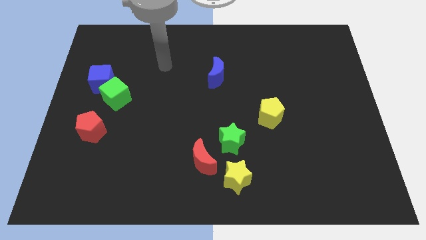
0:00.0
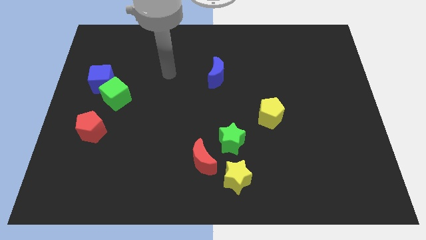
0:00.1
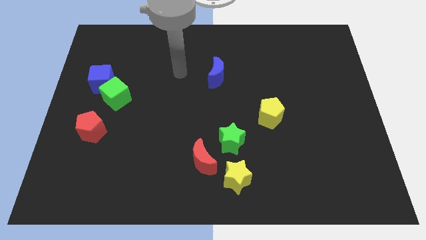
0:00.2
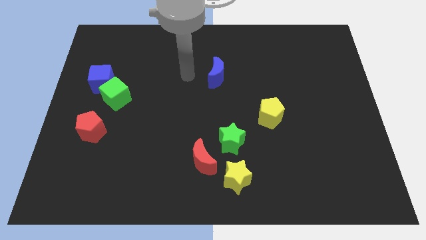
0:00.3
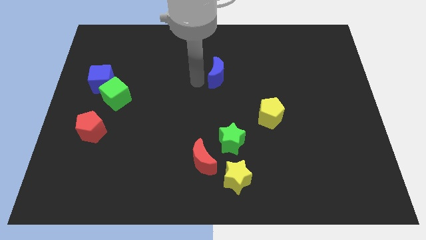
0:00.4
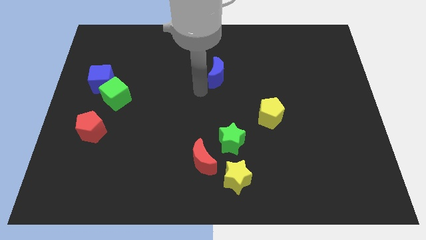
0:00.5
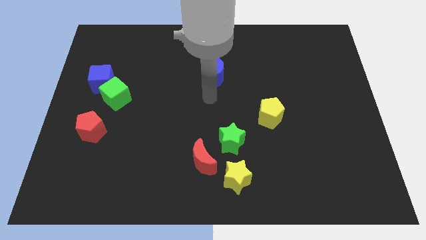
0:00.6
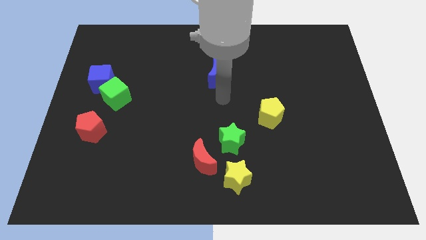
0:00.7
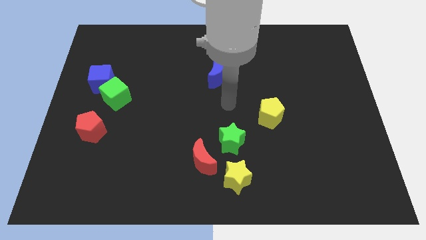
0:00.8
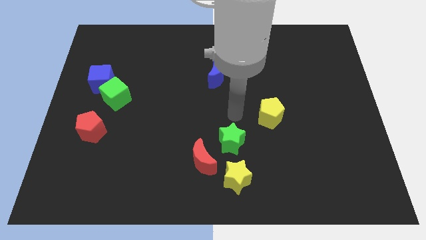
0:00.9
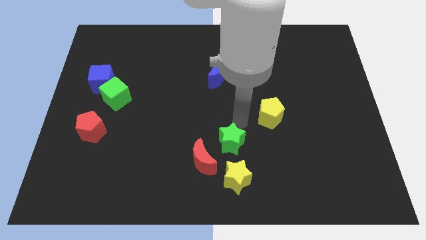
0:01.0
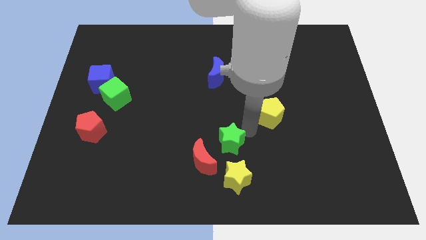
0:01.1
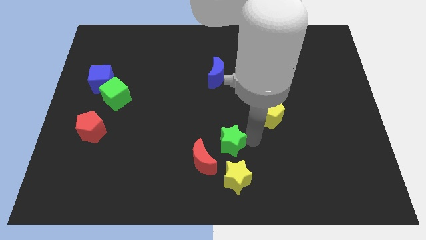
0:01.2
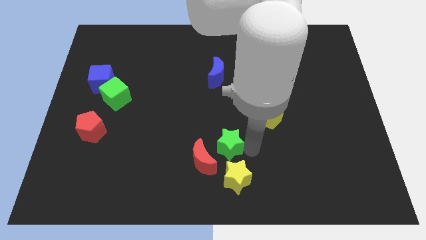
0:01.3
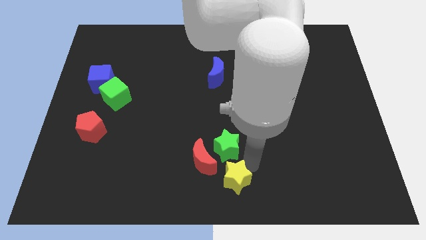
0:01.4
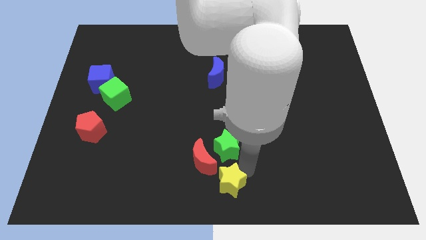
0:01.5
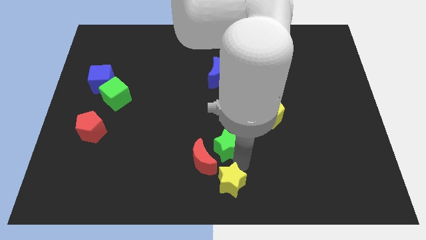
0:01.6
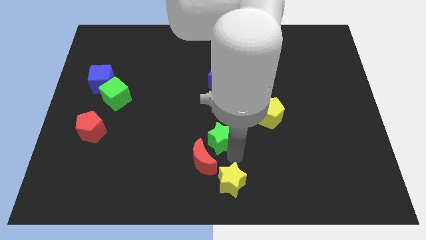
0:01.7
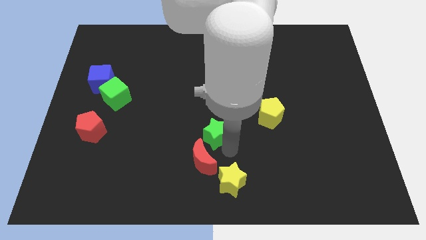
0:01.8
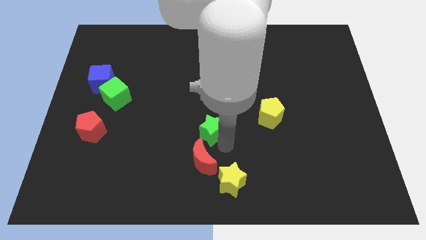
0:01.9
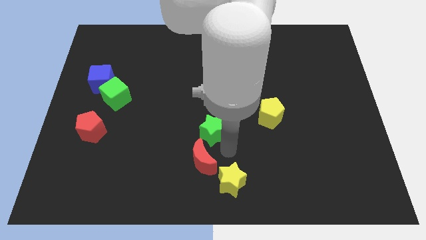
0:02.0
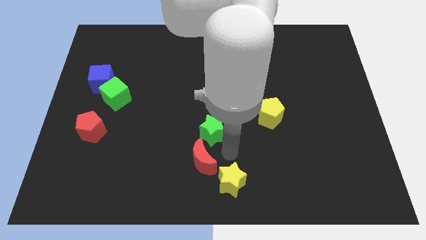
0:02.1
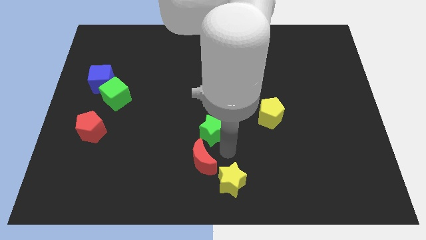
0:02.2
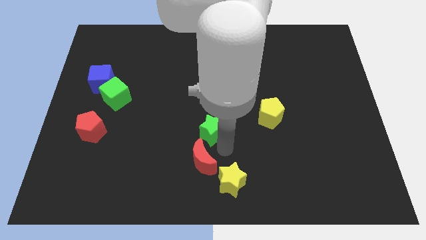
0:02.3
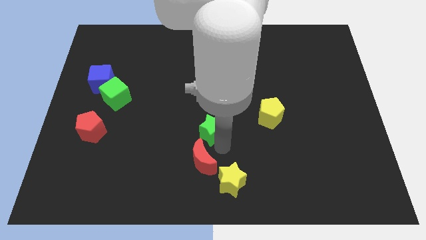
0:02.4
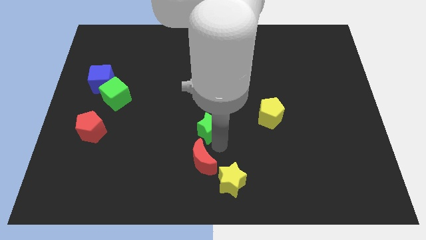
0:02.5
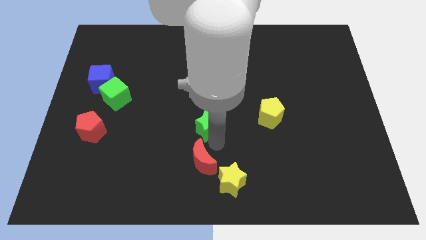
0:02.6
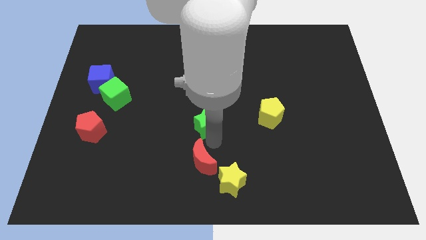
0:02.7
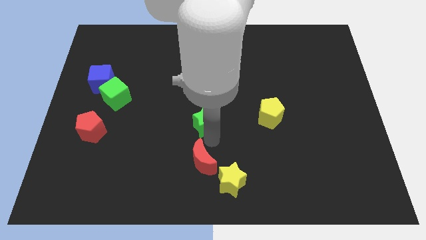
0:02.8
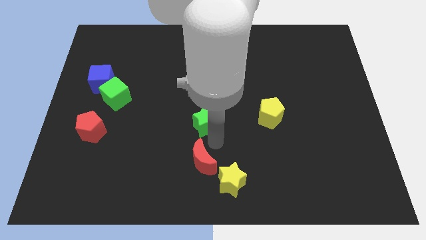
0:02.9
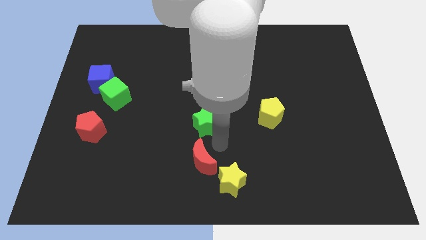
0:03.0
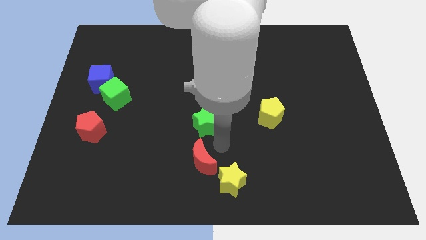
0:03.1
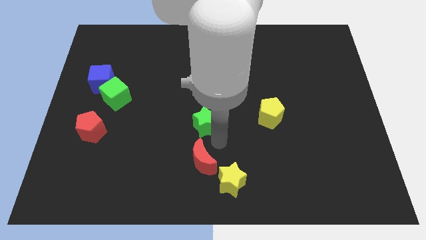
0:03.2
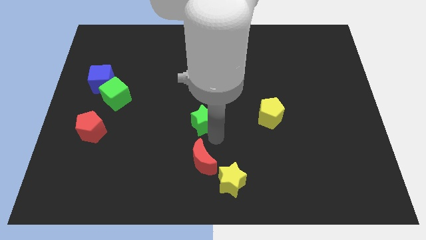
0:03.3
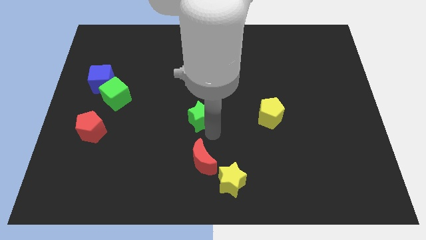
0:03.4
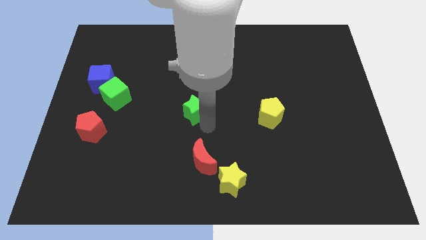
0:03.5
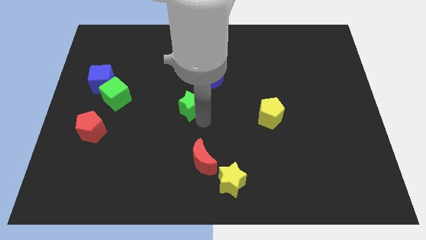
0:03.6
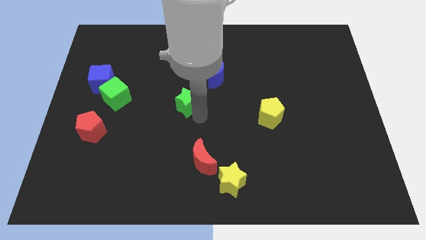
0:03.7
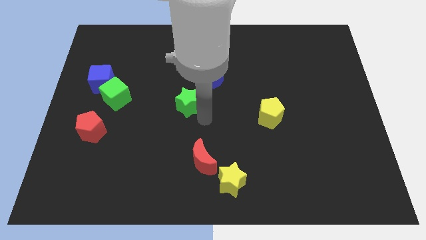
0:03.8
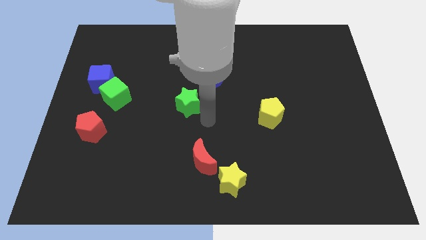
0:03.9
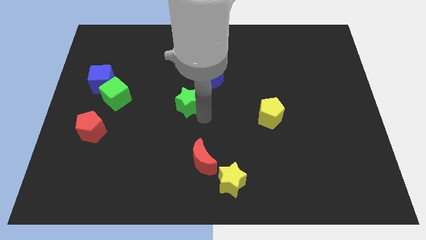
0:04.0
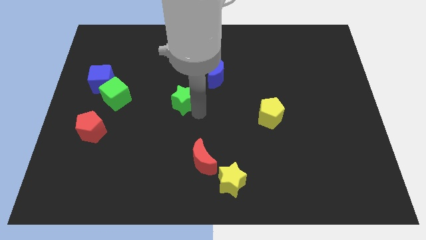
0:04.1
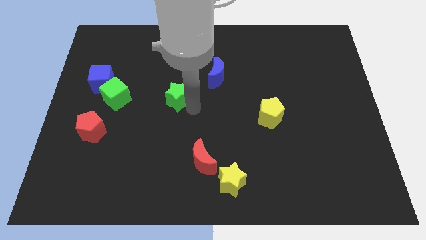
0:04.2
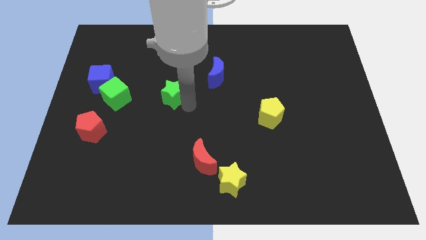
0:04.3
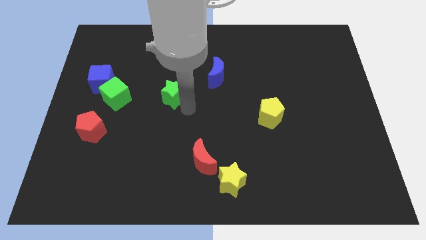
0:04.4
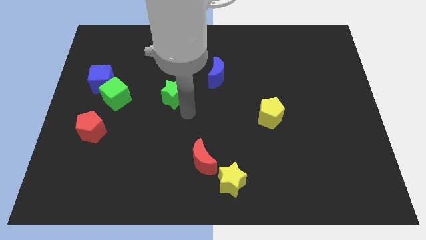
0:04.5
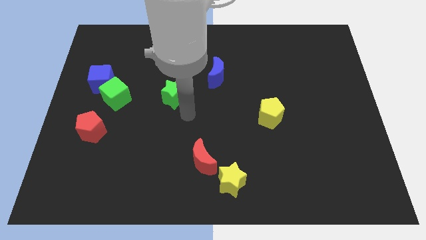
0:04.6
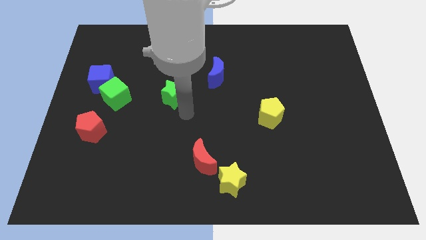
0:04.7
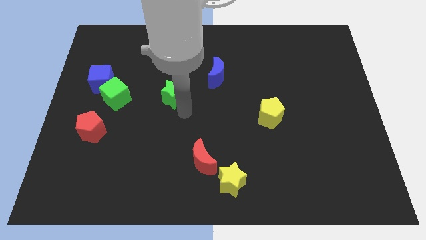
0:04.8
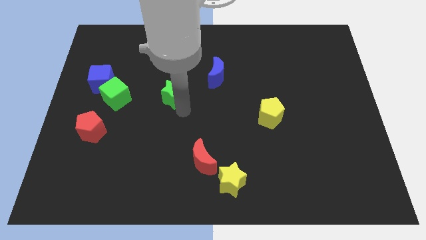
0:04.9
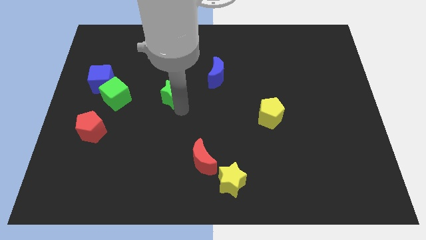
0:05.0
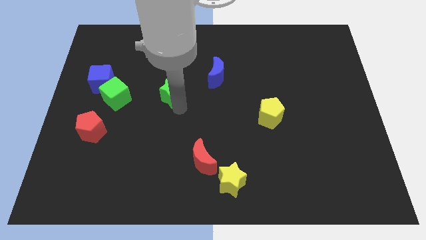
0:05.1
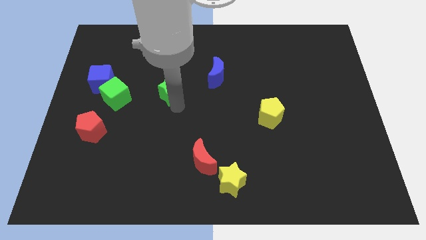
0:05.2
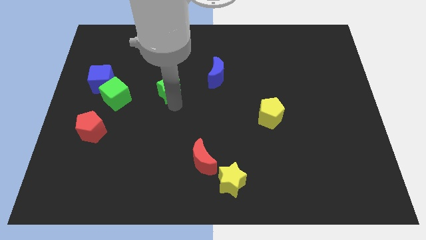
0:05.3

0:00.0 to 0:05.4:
push the green star up and to the left diagonally

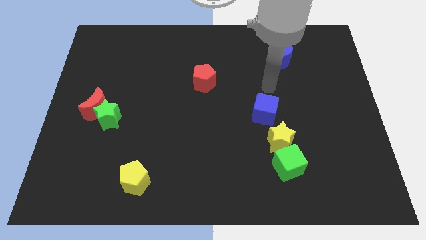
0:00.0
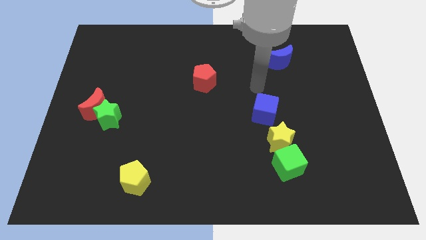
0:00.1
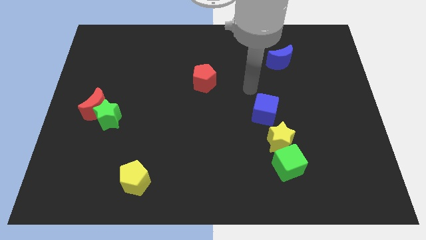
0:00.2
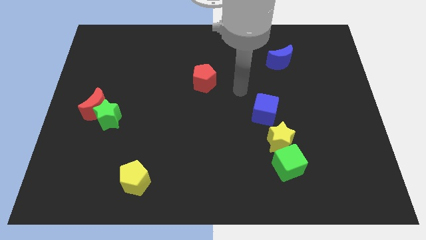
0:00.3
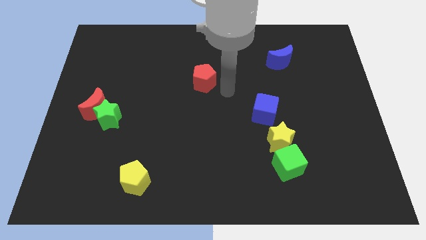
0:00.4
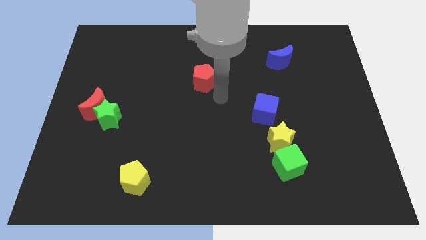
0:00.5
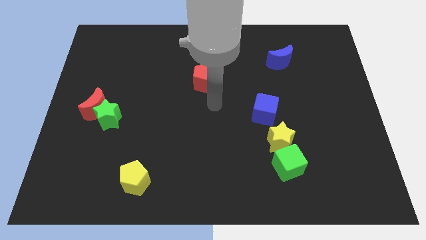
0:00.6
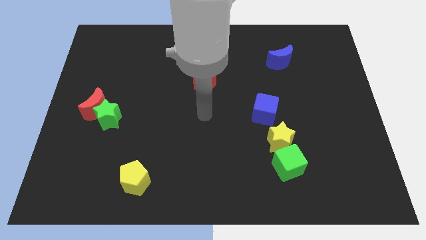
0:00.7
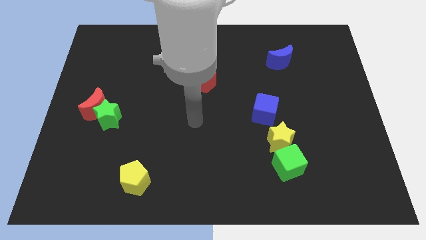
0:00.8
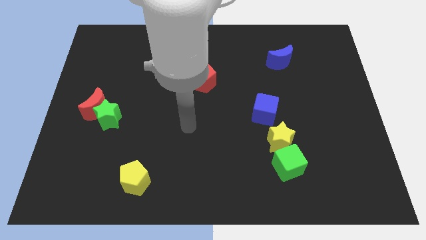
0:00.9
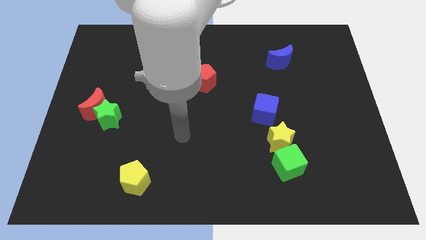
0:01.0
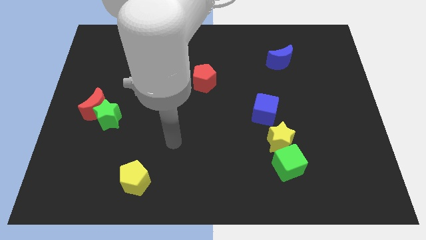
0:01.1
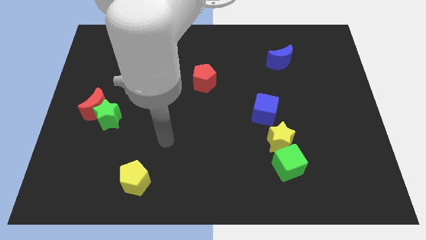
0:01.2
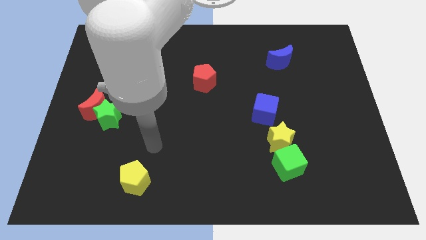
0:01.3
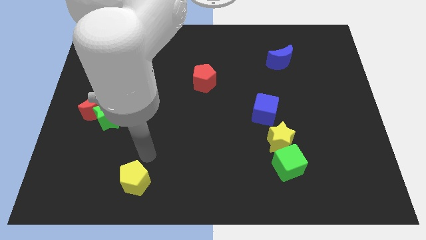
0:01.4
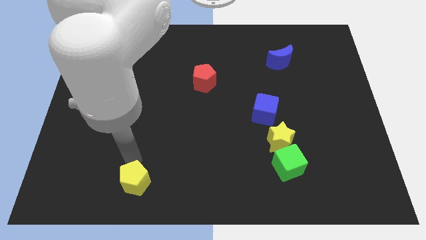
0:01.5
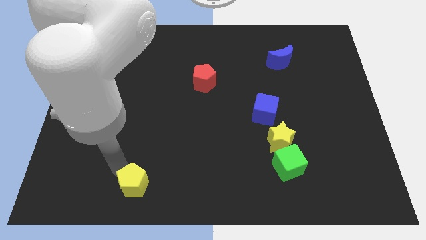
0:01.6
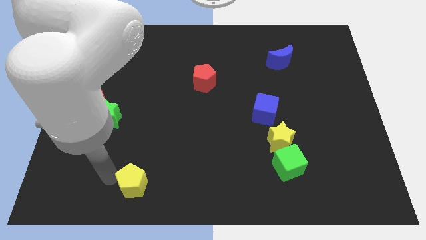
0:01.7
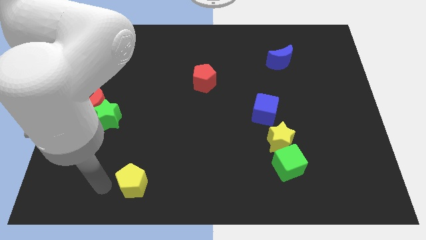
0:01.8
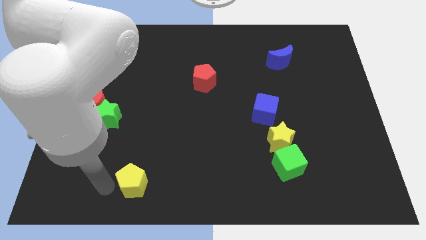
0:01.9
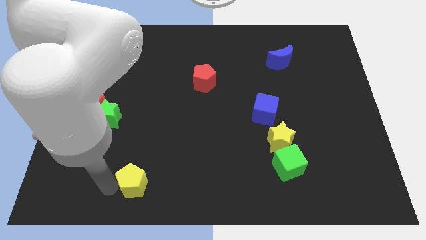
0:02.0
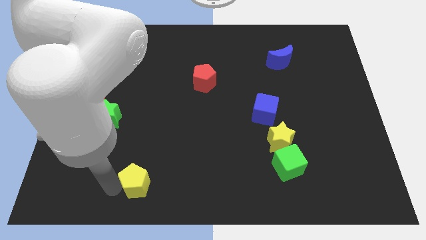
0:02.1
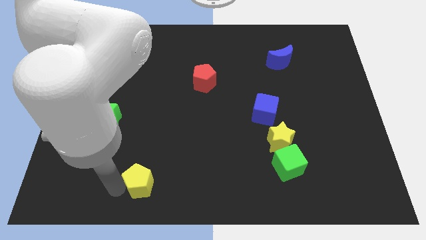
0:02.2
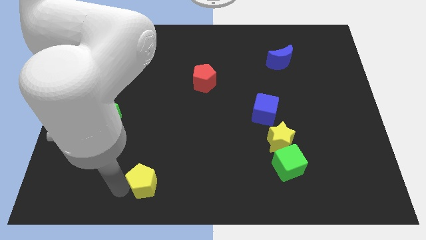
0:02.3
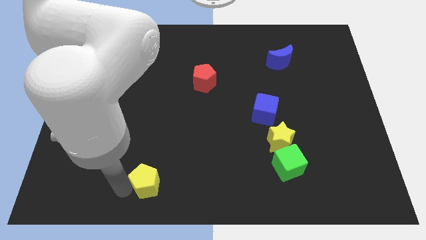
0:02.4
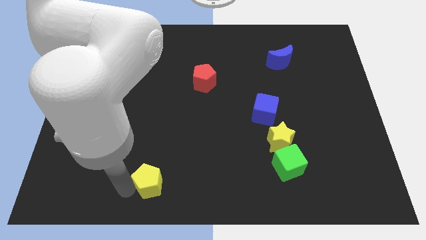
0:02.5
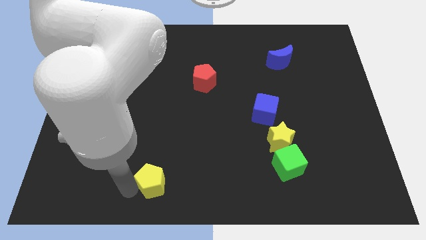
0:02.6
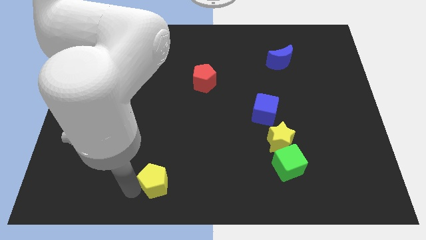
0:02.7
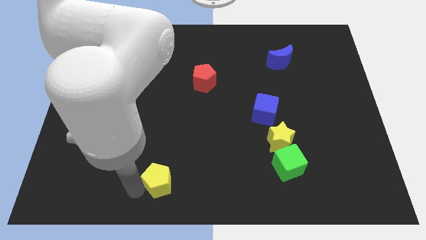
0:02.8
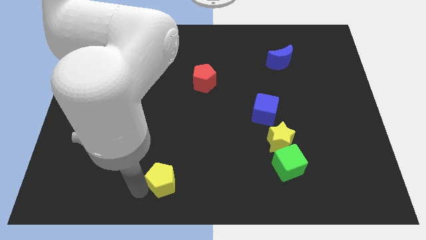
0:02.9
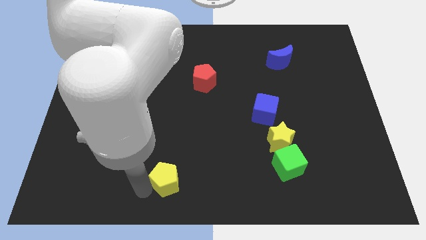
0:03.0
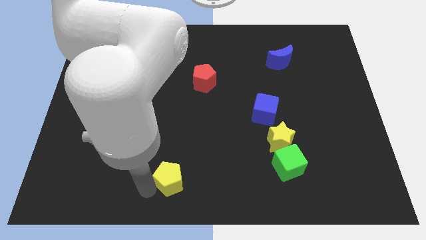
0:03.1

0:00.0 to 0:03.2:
slightly push the yellow pentagon to the right
